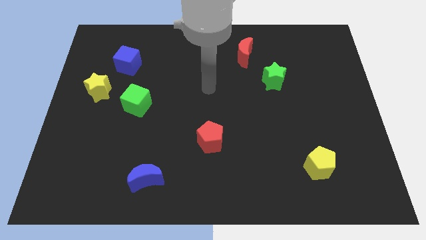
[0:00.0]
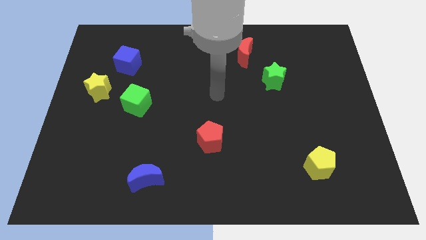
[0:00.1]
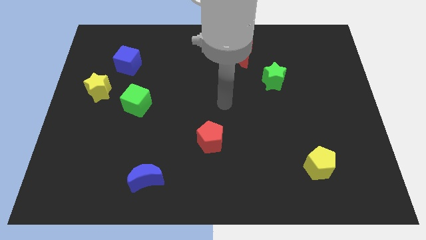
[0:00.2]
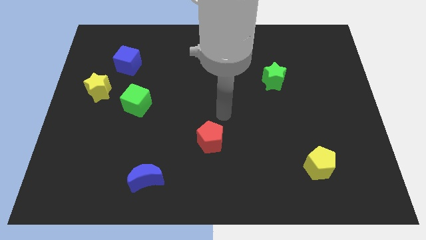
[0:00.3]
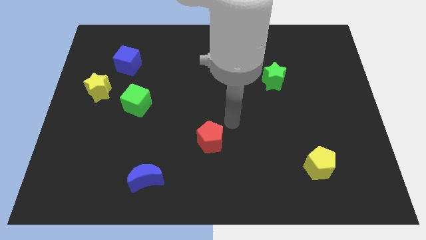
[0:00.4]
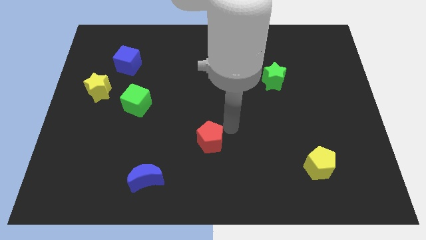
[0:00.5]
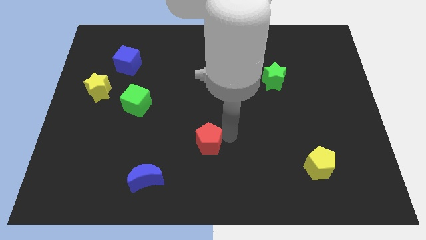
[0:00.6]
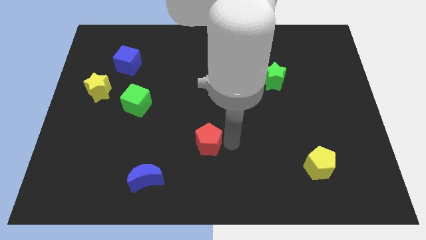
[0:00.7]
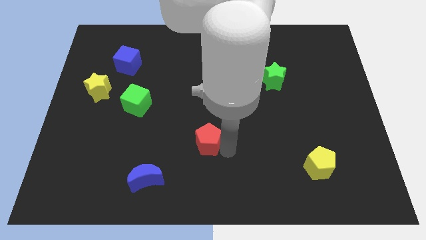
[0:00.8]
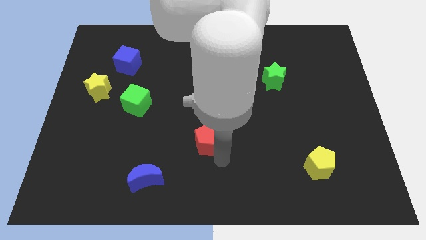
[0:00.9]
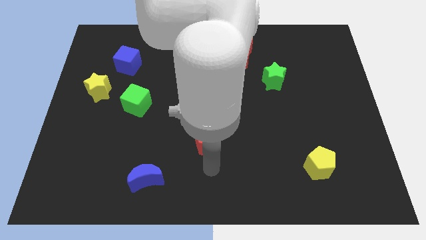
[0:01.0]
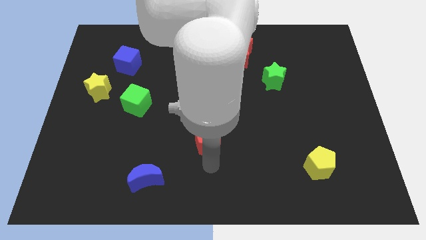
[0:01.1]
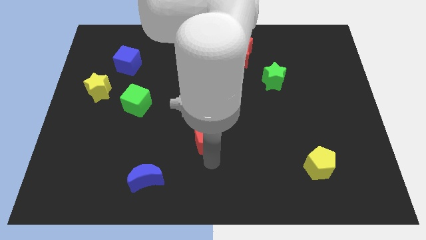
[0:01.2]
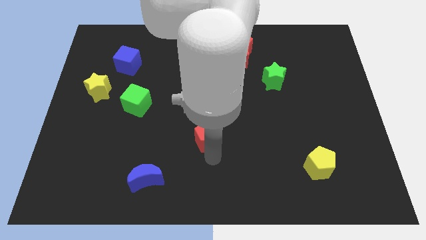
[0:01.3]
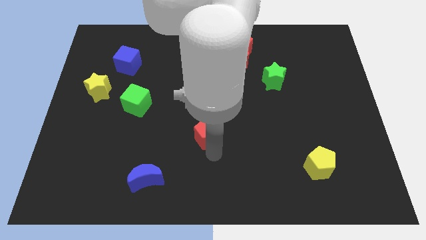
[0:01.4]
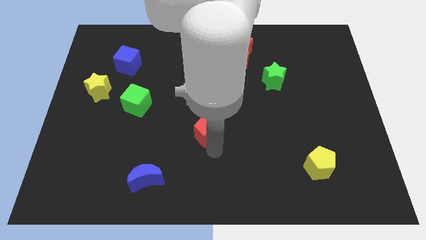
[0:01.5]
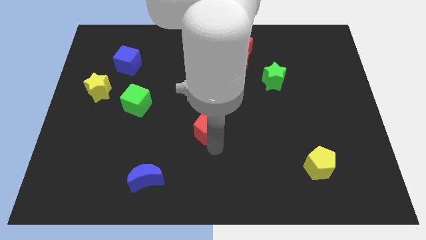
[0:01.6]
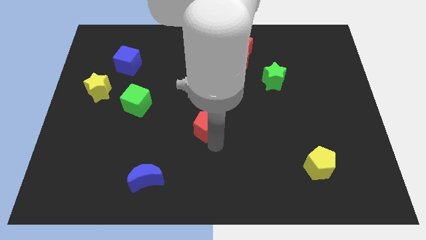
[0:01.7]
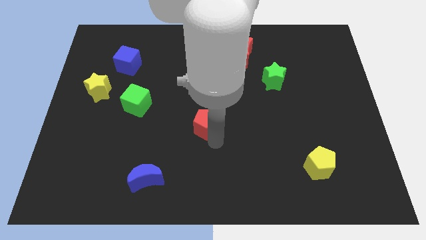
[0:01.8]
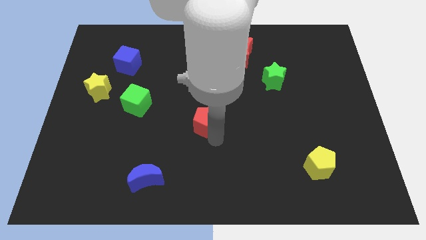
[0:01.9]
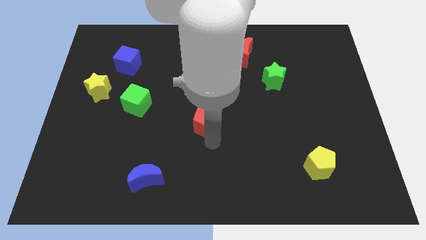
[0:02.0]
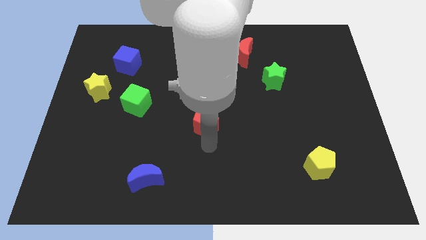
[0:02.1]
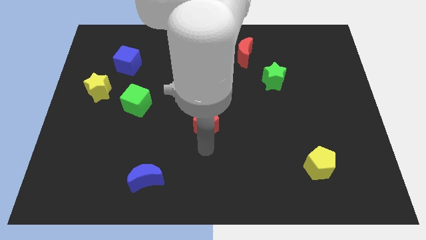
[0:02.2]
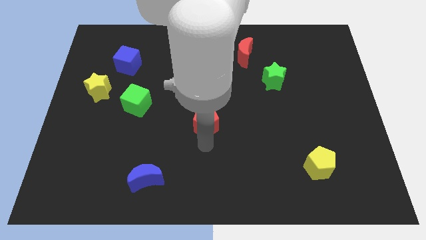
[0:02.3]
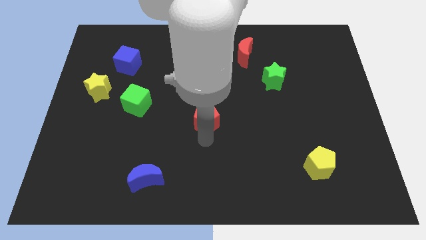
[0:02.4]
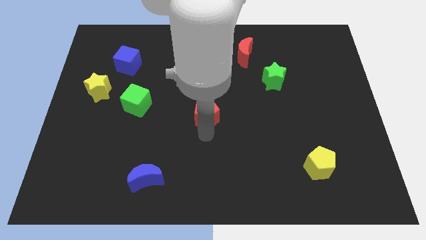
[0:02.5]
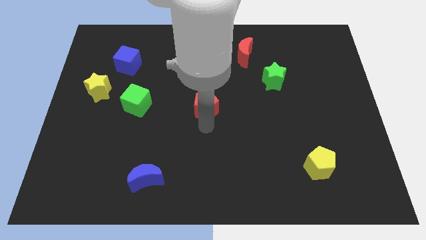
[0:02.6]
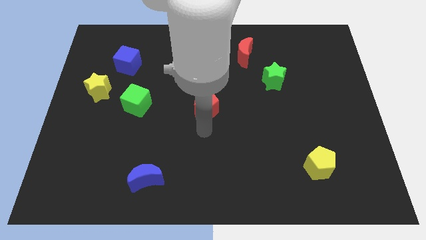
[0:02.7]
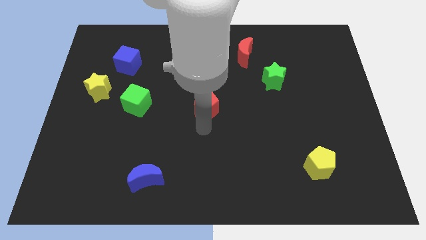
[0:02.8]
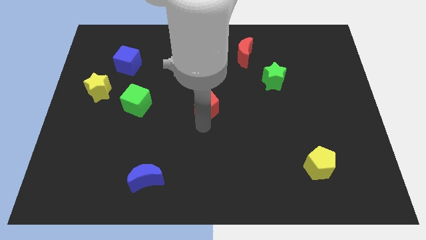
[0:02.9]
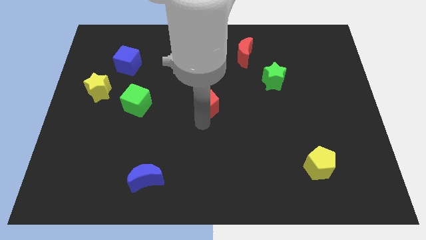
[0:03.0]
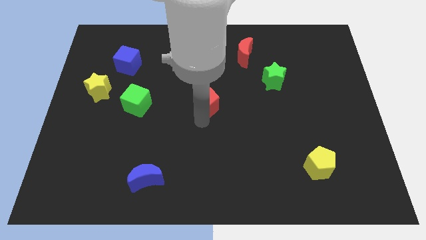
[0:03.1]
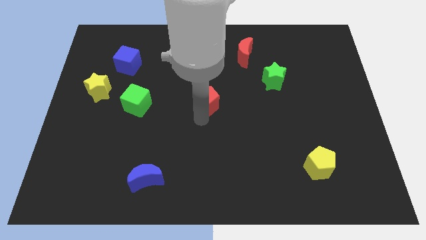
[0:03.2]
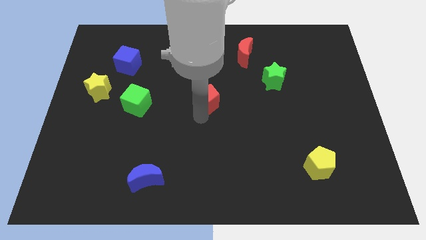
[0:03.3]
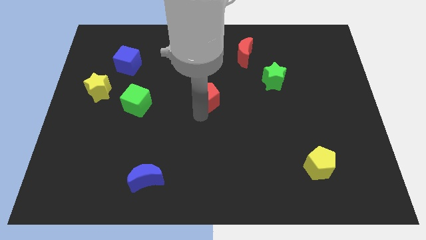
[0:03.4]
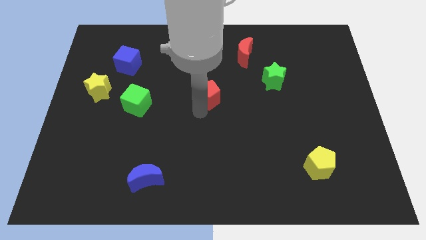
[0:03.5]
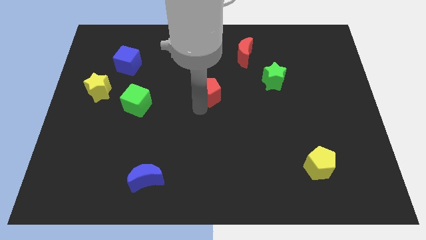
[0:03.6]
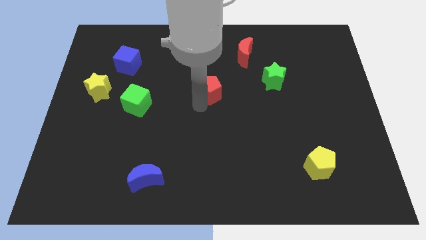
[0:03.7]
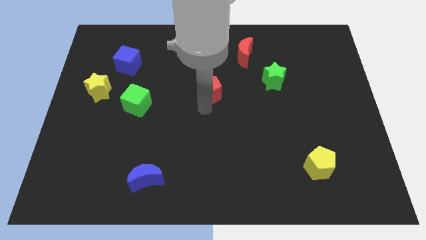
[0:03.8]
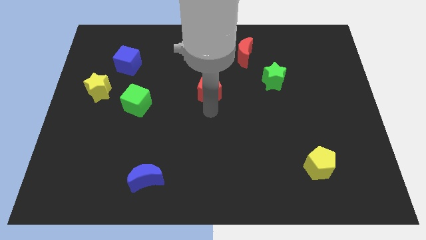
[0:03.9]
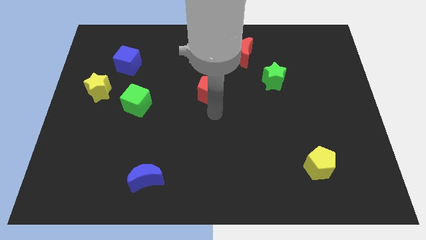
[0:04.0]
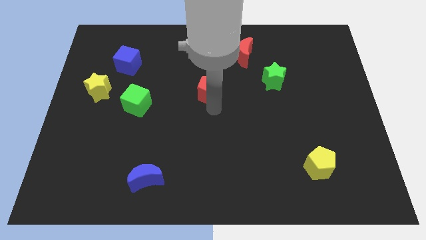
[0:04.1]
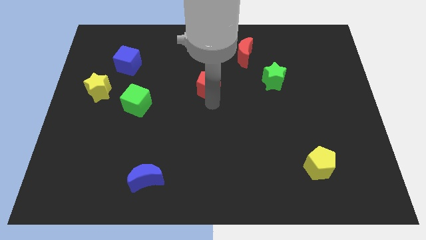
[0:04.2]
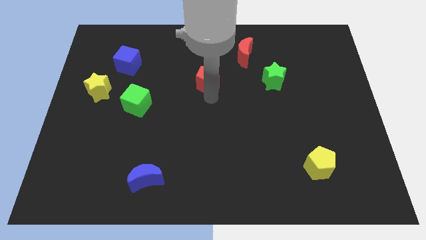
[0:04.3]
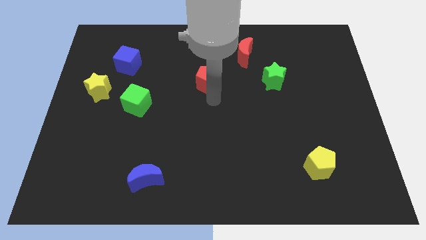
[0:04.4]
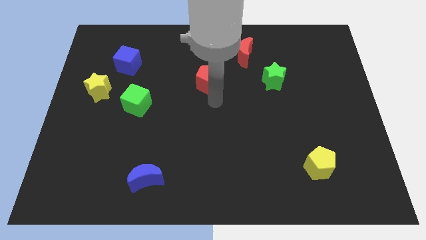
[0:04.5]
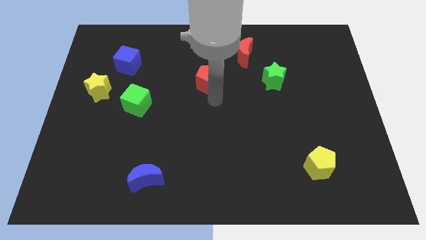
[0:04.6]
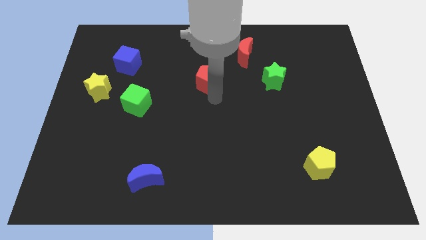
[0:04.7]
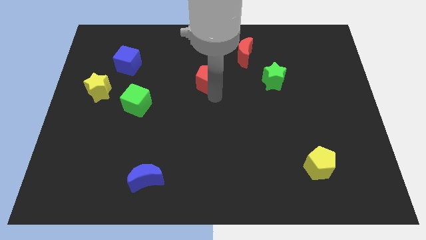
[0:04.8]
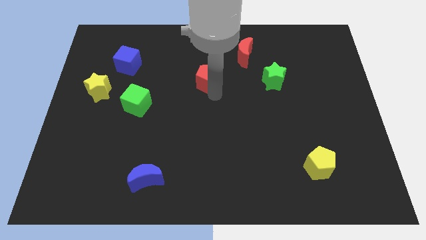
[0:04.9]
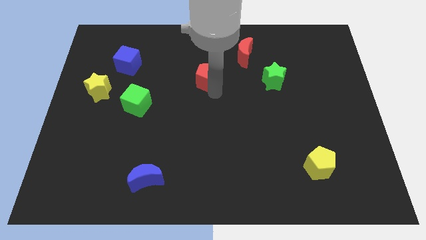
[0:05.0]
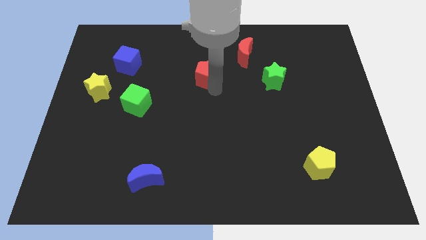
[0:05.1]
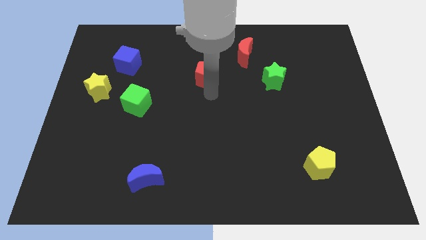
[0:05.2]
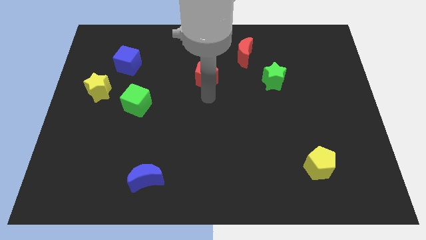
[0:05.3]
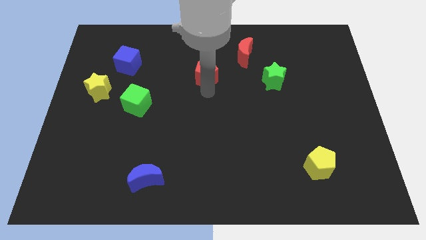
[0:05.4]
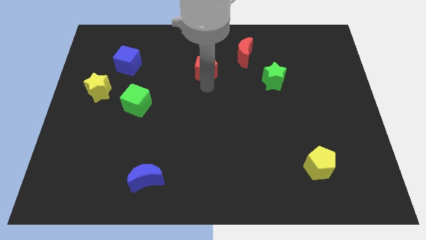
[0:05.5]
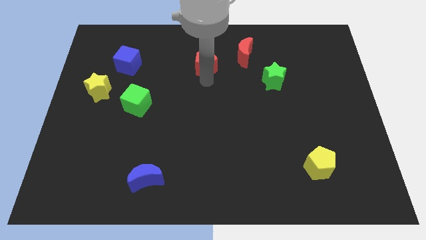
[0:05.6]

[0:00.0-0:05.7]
put the red pentagon to the left side of the red moon

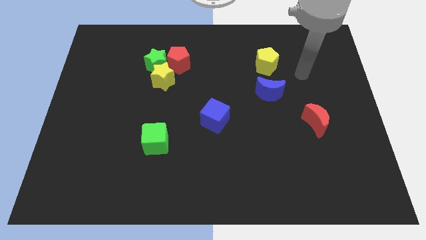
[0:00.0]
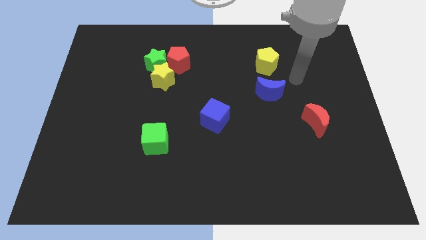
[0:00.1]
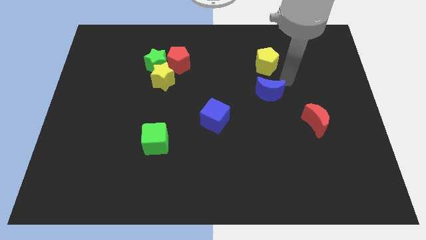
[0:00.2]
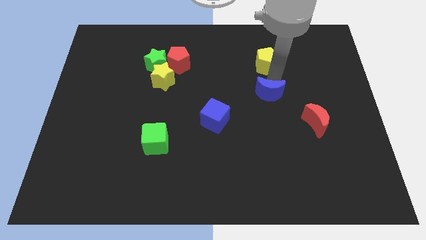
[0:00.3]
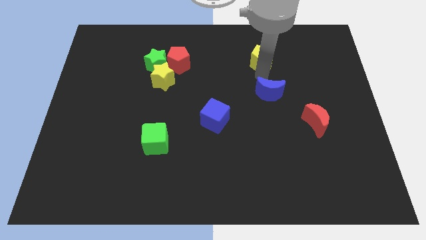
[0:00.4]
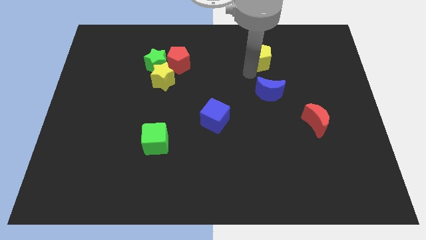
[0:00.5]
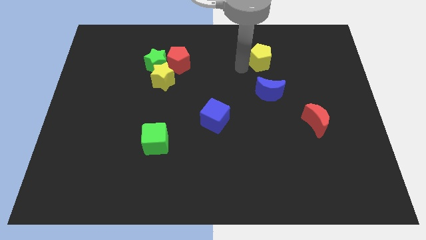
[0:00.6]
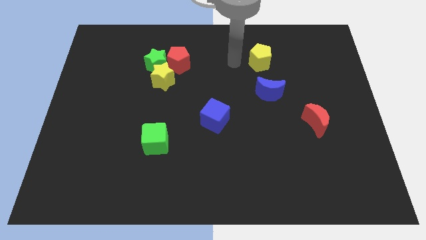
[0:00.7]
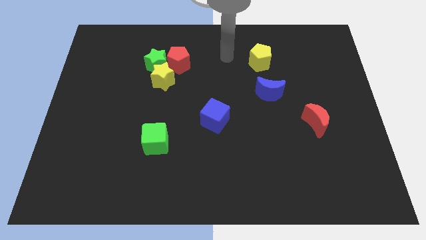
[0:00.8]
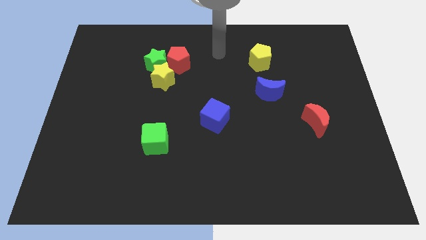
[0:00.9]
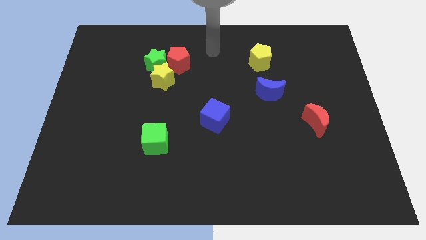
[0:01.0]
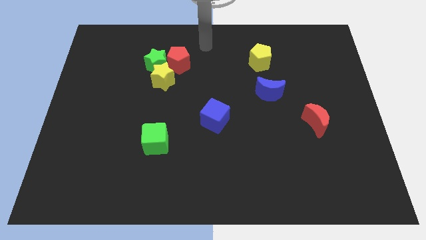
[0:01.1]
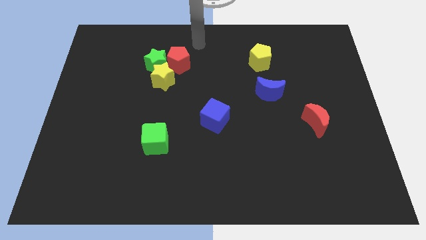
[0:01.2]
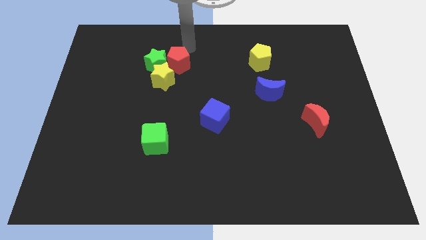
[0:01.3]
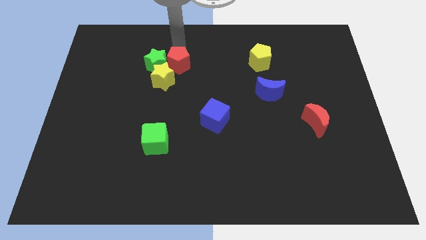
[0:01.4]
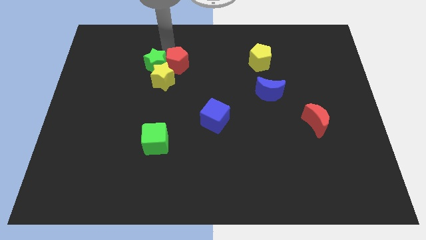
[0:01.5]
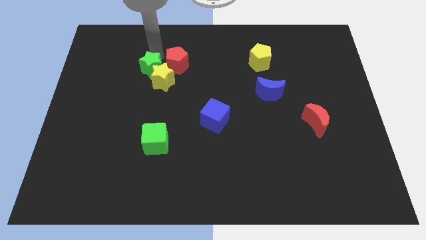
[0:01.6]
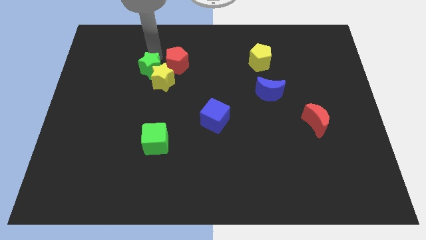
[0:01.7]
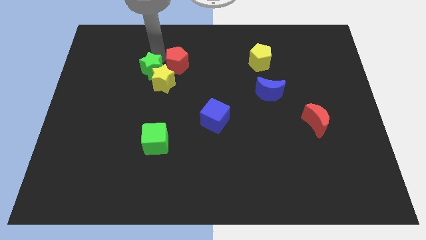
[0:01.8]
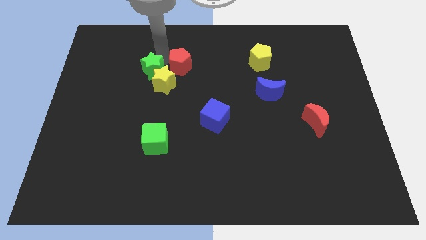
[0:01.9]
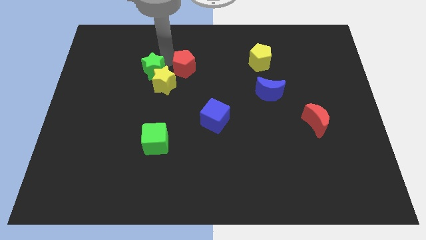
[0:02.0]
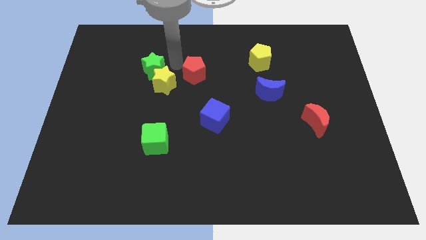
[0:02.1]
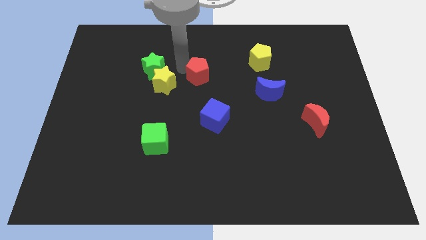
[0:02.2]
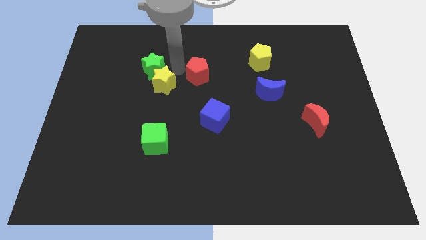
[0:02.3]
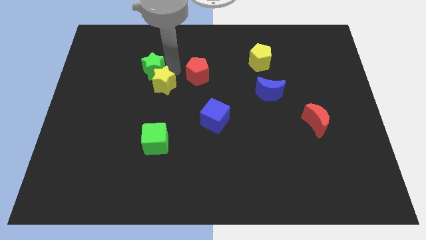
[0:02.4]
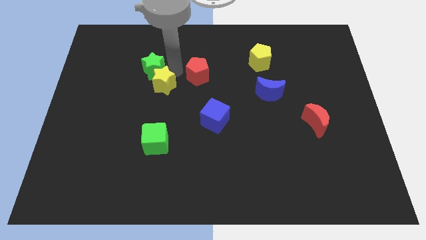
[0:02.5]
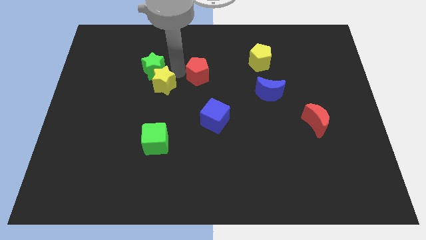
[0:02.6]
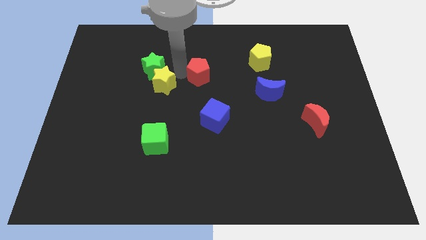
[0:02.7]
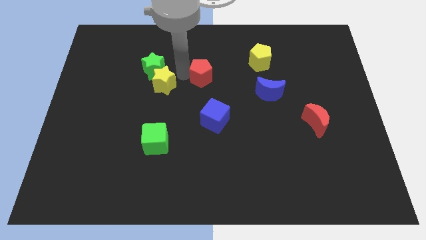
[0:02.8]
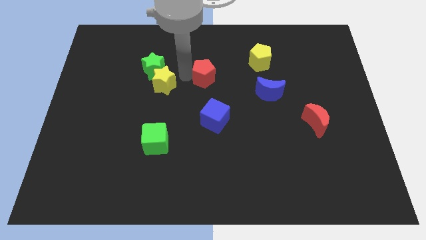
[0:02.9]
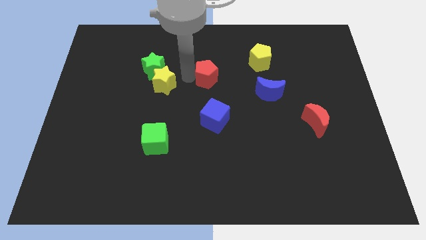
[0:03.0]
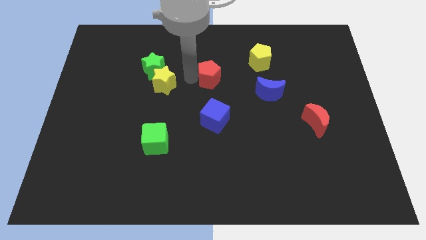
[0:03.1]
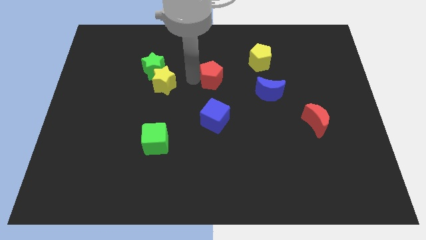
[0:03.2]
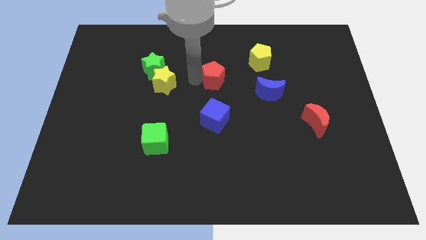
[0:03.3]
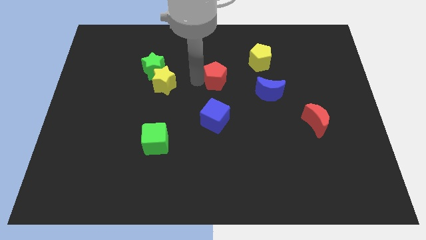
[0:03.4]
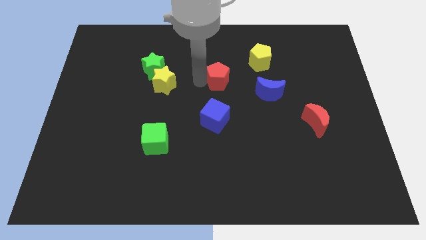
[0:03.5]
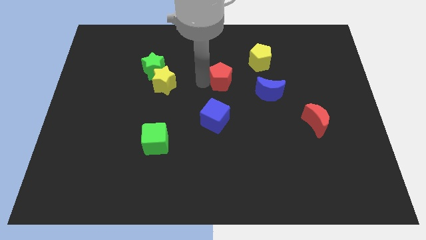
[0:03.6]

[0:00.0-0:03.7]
slide the red pentagon diagonally down and to the left of the yellow pentagon
